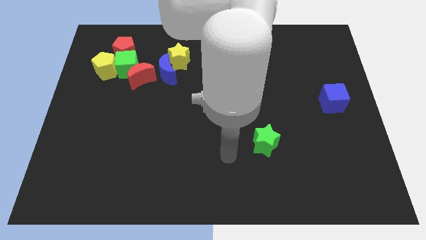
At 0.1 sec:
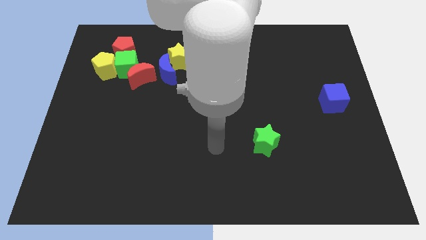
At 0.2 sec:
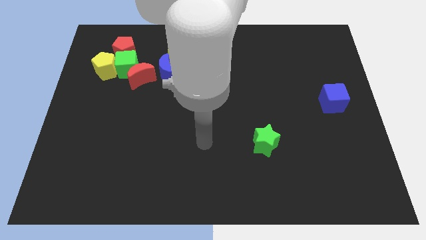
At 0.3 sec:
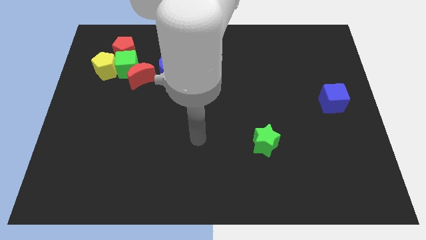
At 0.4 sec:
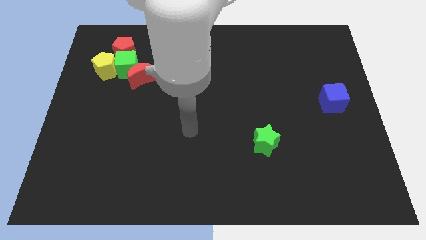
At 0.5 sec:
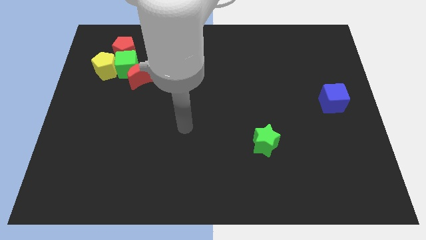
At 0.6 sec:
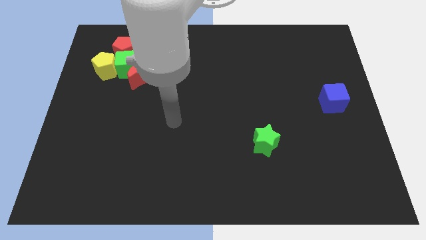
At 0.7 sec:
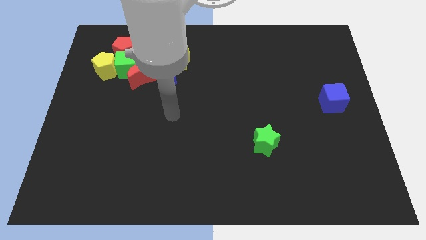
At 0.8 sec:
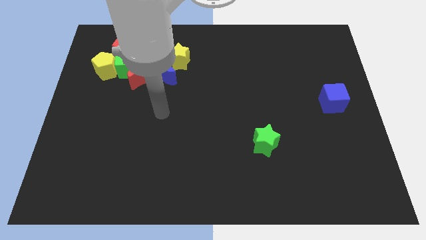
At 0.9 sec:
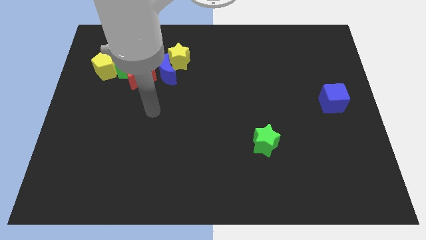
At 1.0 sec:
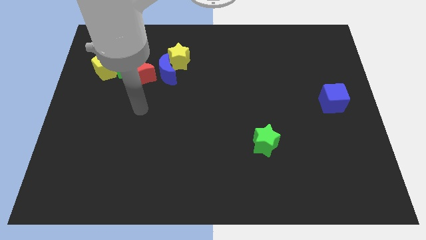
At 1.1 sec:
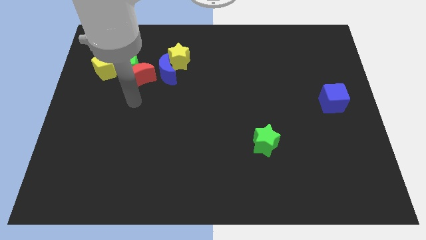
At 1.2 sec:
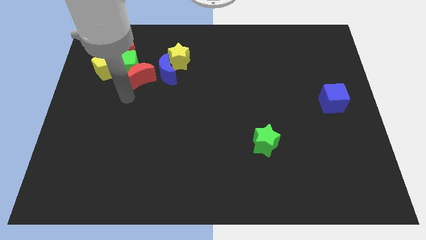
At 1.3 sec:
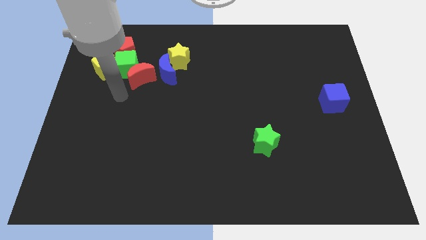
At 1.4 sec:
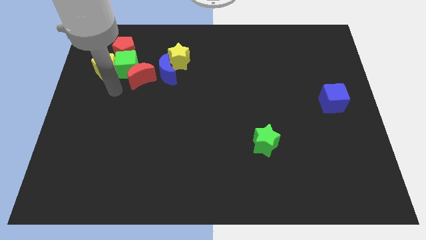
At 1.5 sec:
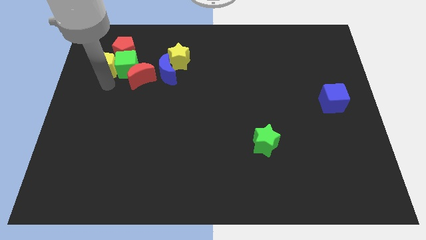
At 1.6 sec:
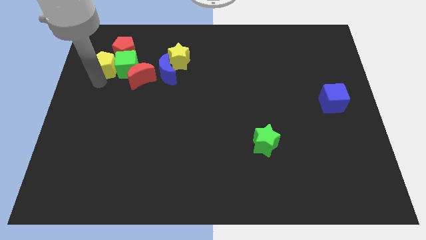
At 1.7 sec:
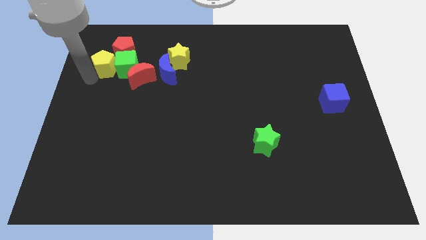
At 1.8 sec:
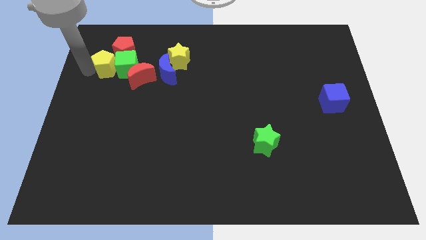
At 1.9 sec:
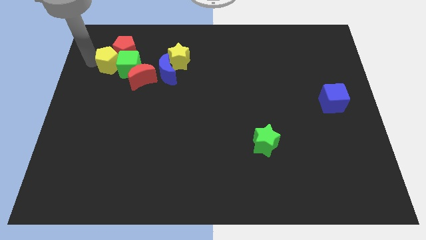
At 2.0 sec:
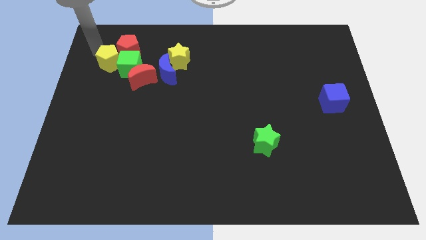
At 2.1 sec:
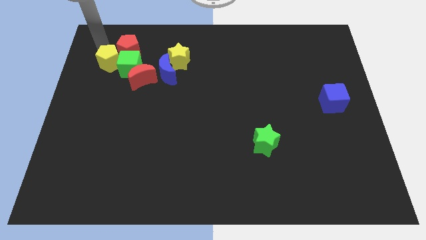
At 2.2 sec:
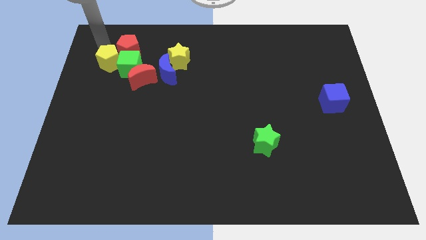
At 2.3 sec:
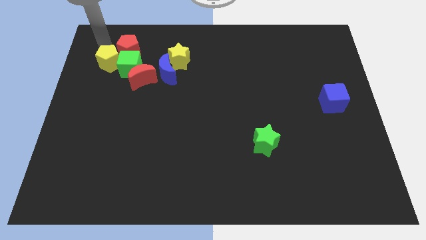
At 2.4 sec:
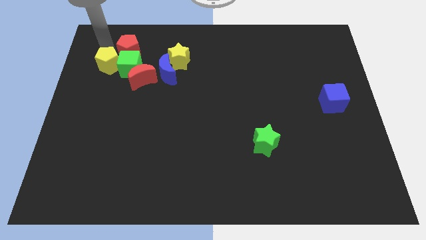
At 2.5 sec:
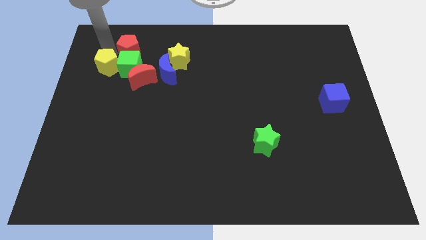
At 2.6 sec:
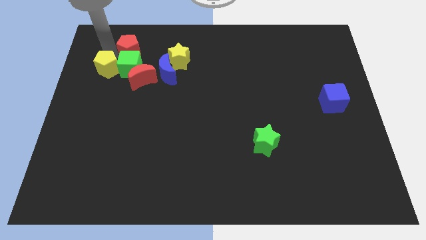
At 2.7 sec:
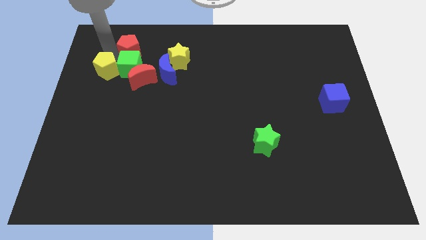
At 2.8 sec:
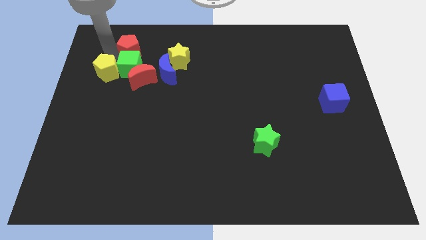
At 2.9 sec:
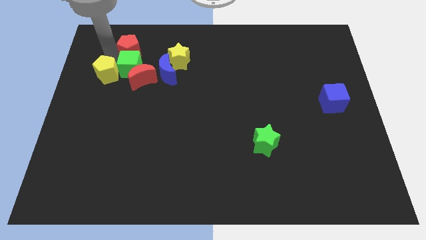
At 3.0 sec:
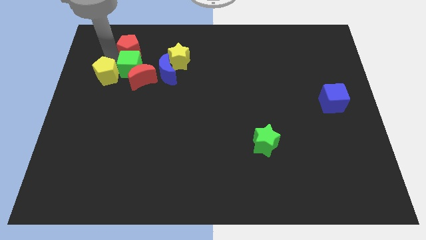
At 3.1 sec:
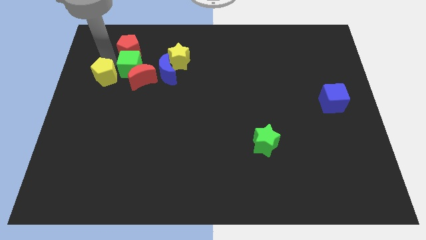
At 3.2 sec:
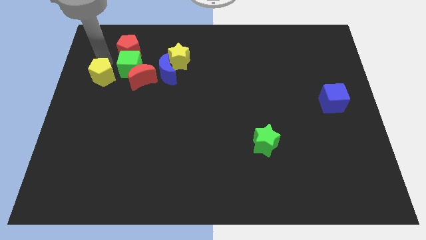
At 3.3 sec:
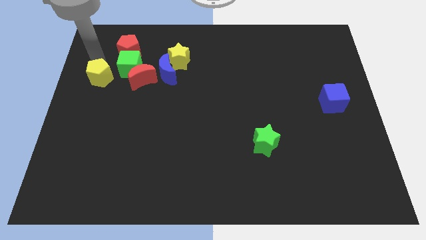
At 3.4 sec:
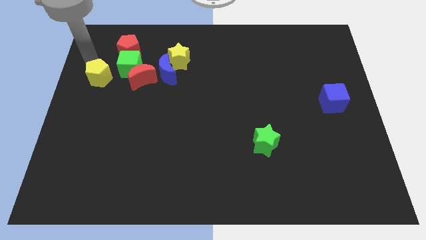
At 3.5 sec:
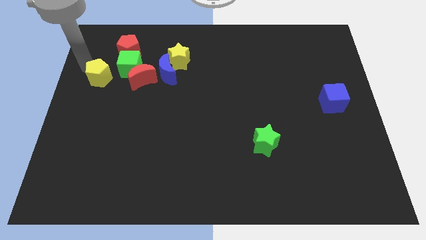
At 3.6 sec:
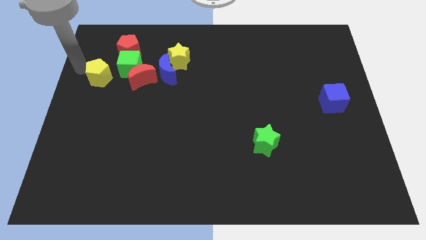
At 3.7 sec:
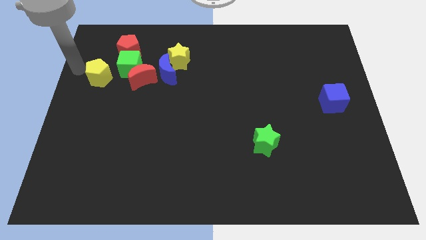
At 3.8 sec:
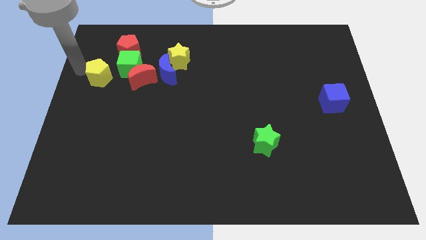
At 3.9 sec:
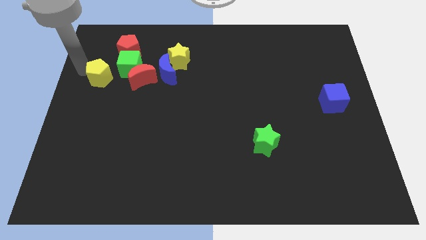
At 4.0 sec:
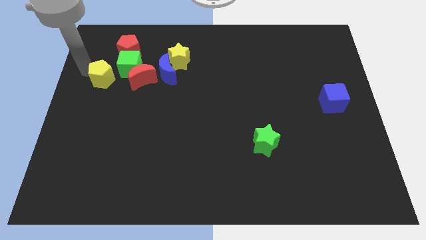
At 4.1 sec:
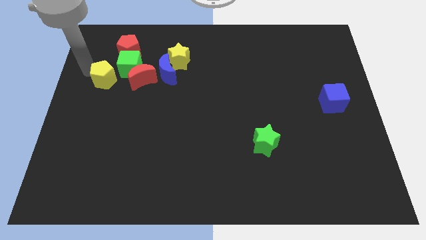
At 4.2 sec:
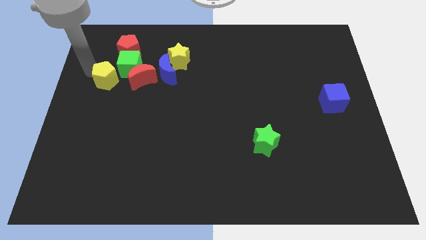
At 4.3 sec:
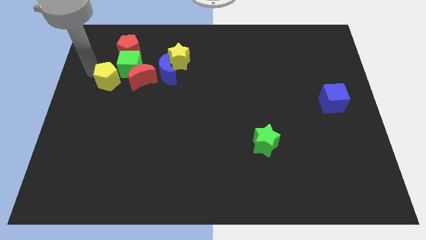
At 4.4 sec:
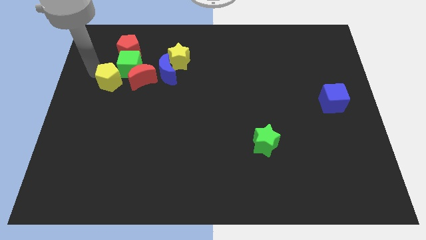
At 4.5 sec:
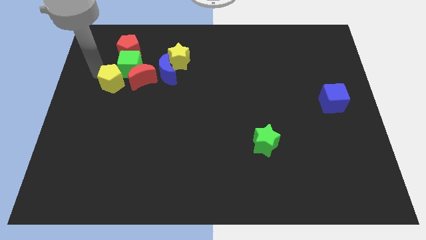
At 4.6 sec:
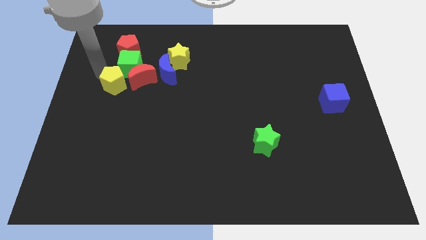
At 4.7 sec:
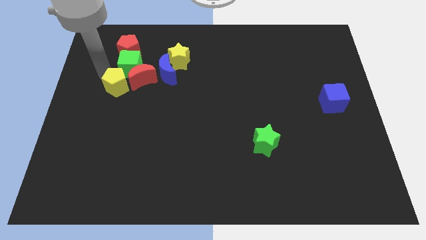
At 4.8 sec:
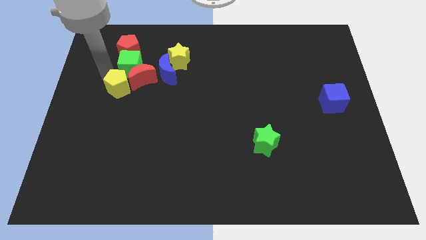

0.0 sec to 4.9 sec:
move the yellow pentagon a bit diagonally downwards and to the right

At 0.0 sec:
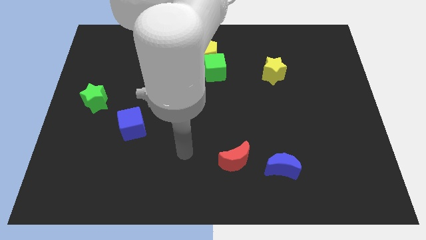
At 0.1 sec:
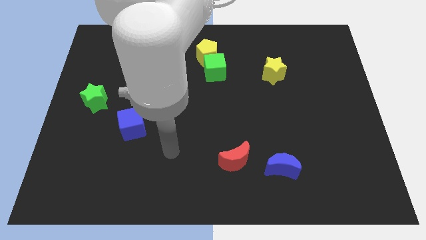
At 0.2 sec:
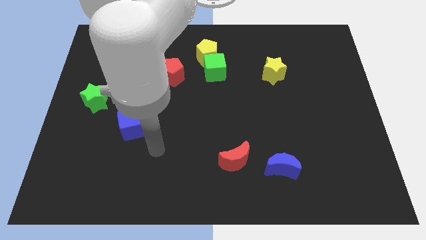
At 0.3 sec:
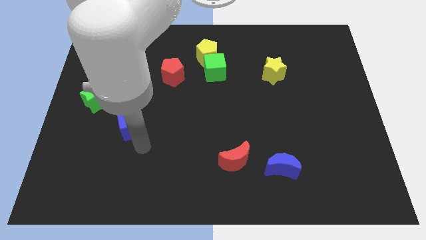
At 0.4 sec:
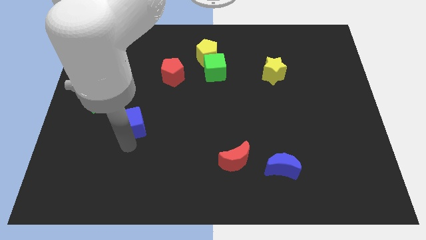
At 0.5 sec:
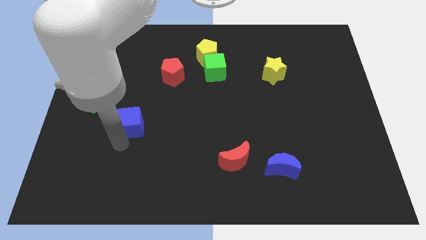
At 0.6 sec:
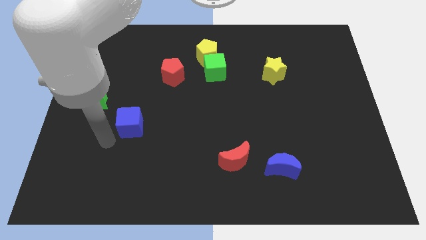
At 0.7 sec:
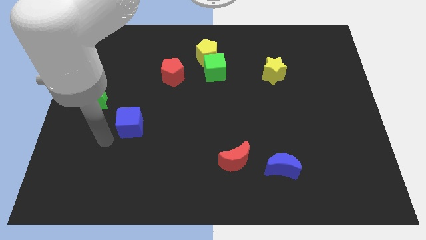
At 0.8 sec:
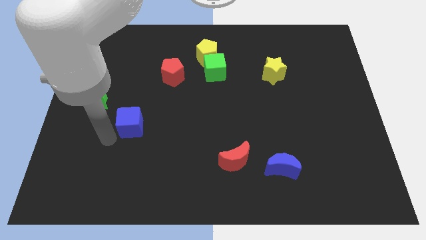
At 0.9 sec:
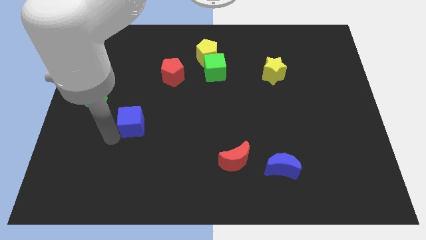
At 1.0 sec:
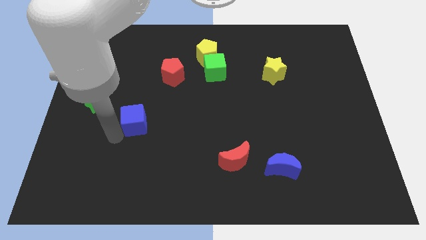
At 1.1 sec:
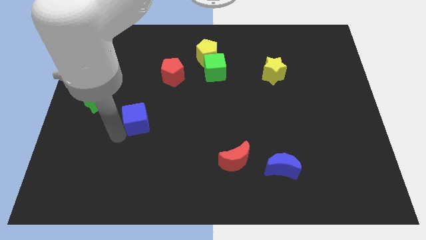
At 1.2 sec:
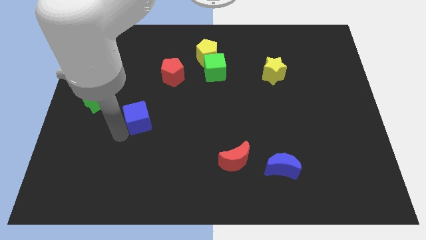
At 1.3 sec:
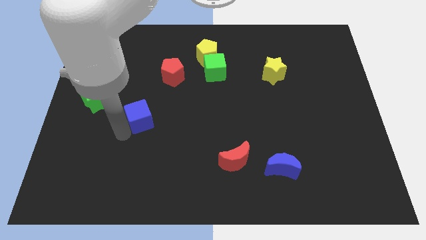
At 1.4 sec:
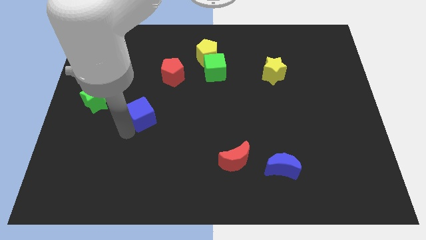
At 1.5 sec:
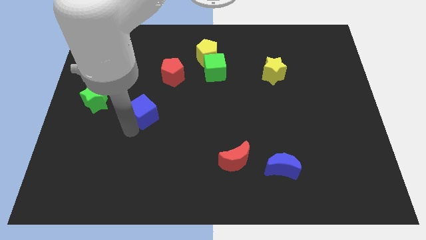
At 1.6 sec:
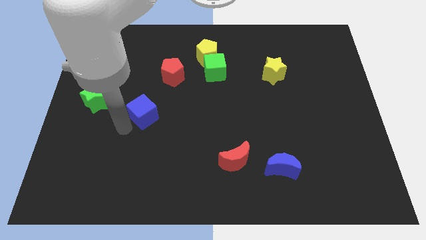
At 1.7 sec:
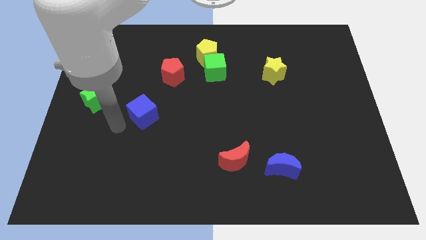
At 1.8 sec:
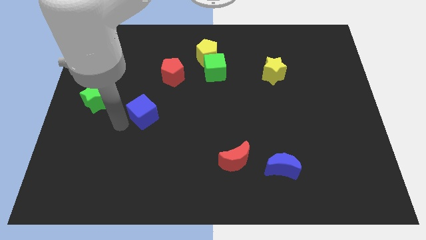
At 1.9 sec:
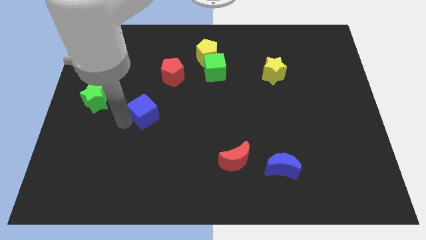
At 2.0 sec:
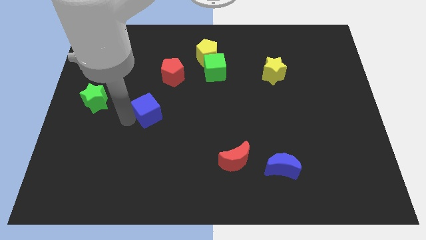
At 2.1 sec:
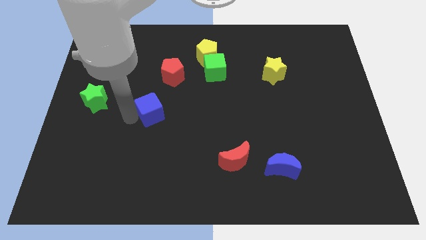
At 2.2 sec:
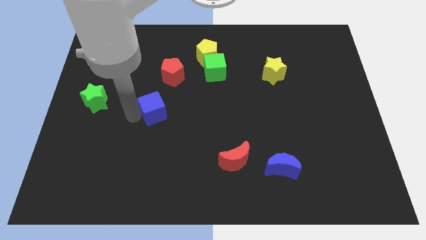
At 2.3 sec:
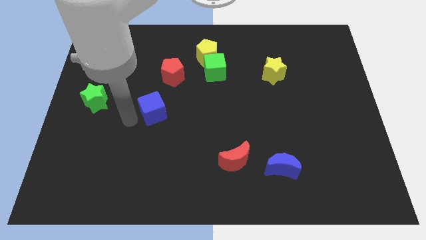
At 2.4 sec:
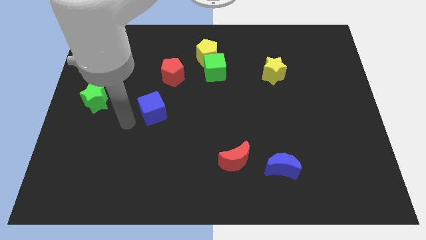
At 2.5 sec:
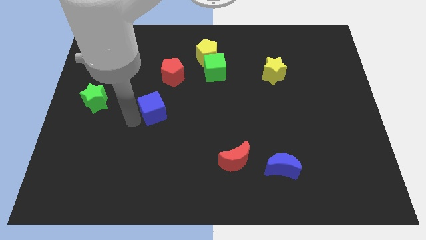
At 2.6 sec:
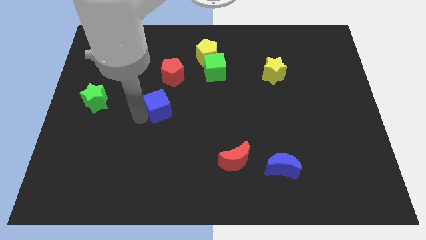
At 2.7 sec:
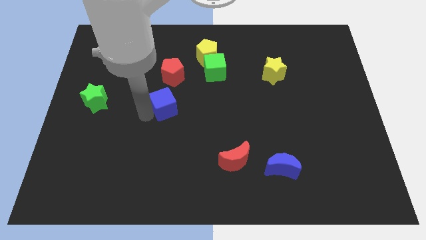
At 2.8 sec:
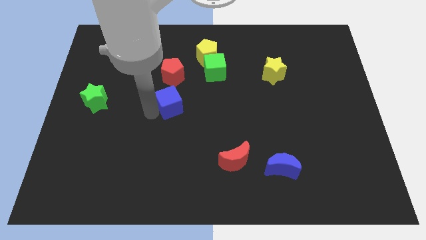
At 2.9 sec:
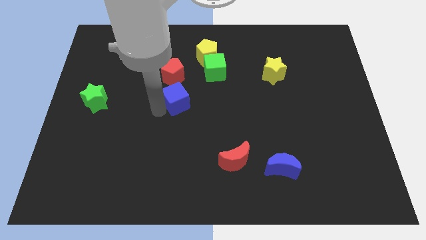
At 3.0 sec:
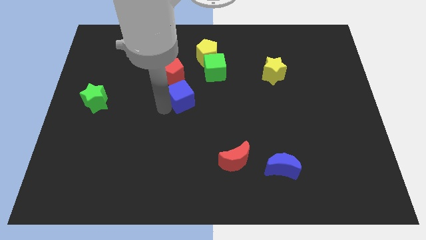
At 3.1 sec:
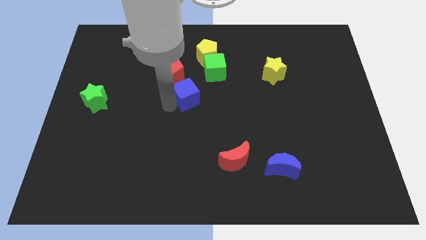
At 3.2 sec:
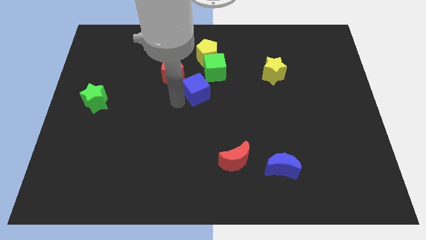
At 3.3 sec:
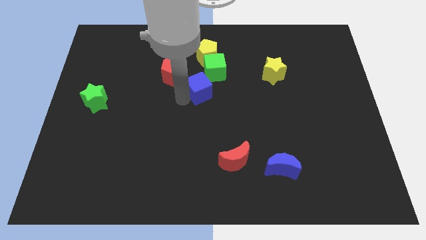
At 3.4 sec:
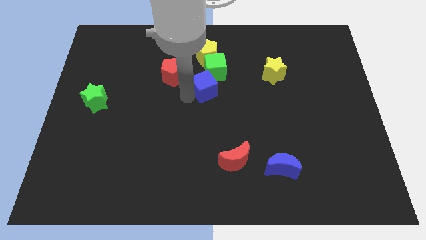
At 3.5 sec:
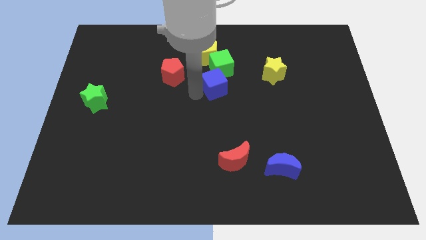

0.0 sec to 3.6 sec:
move the blue cube diagonally upwards and to the right
